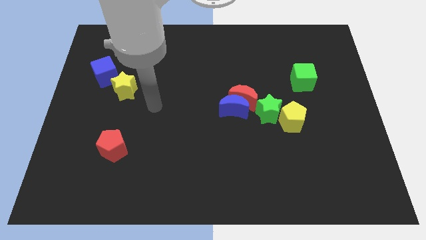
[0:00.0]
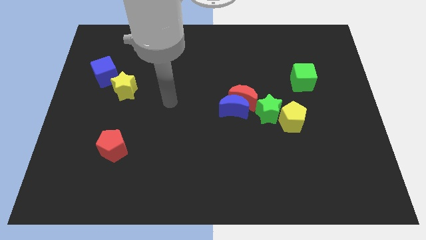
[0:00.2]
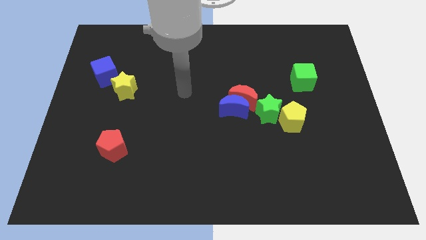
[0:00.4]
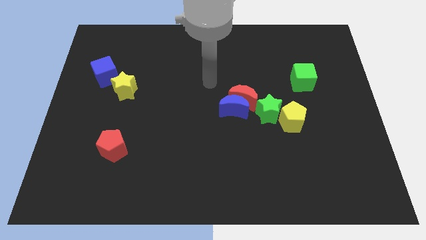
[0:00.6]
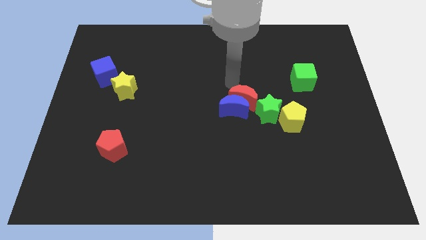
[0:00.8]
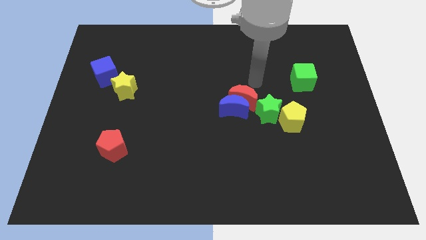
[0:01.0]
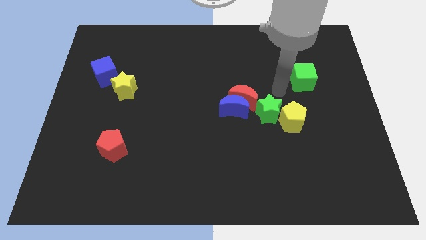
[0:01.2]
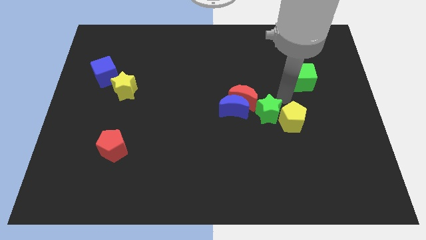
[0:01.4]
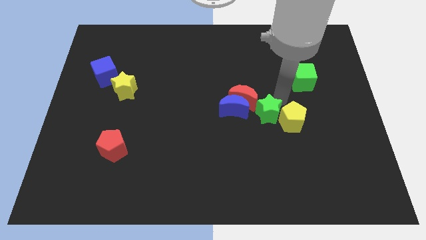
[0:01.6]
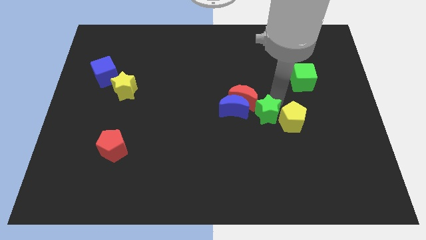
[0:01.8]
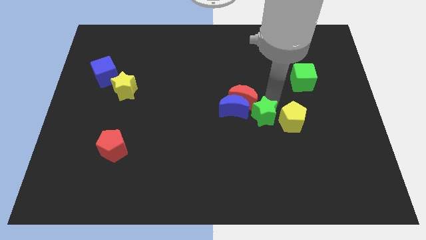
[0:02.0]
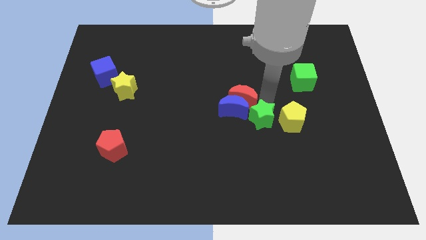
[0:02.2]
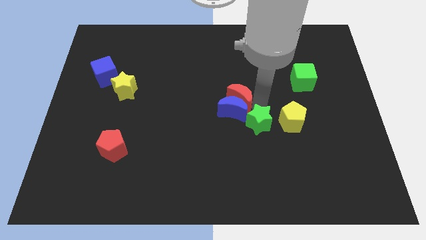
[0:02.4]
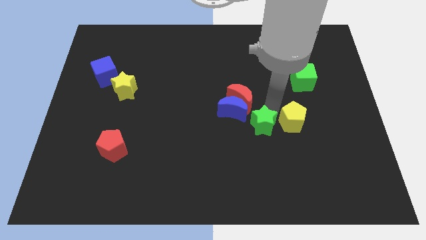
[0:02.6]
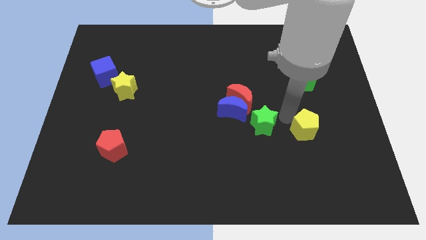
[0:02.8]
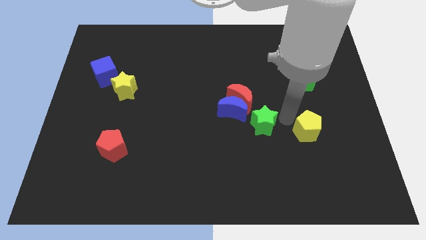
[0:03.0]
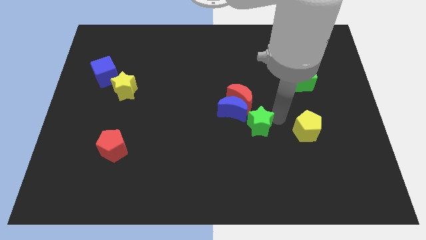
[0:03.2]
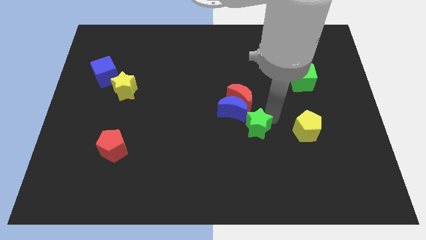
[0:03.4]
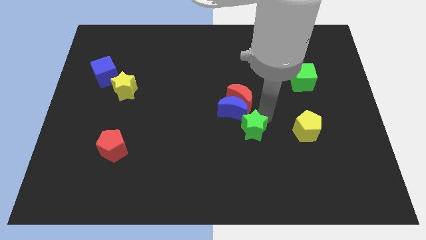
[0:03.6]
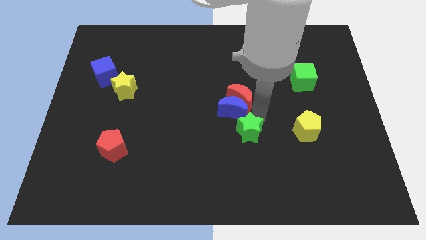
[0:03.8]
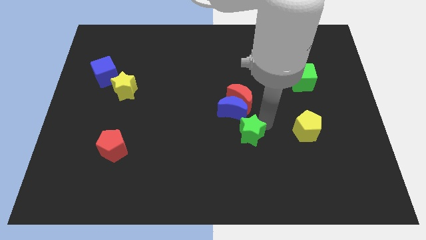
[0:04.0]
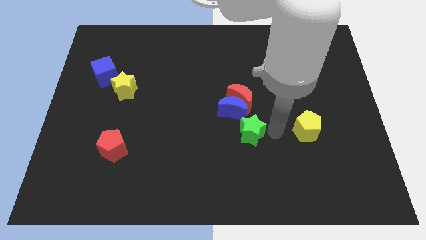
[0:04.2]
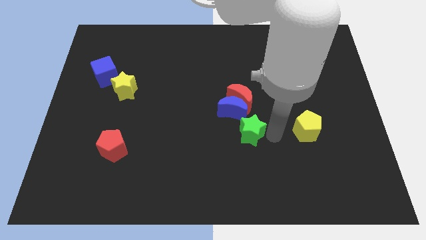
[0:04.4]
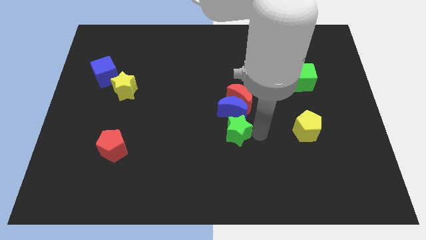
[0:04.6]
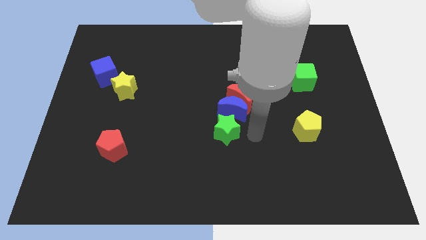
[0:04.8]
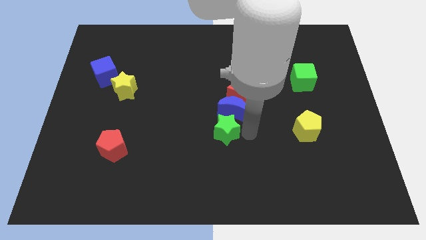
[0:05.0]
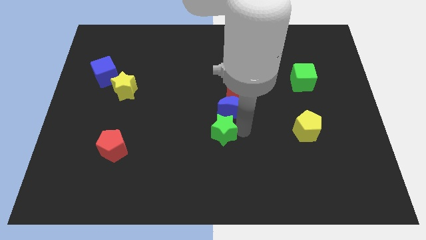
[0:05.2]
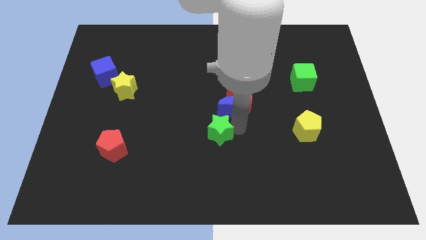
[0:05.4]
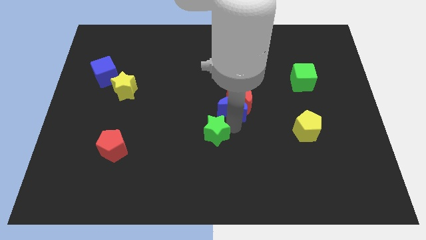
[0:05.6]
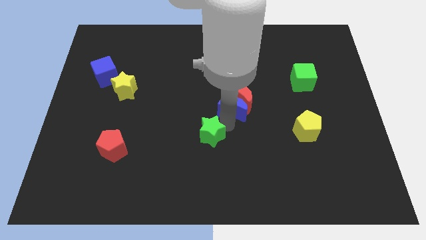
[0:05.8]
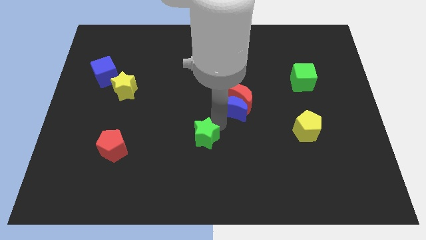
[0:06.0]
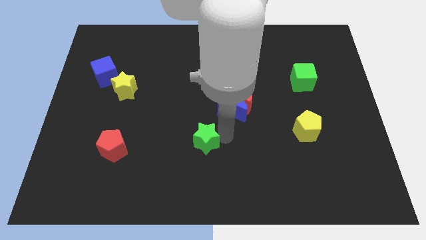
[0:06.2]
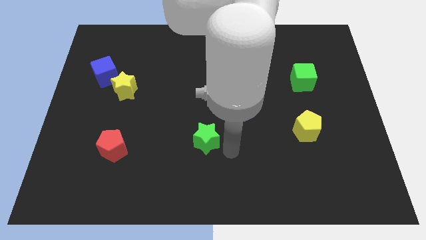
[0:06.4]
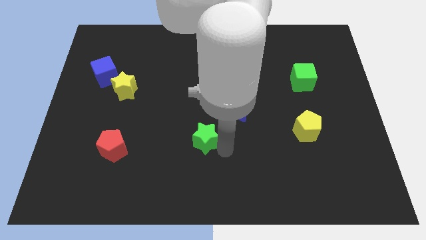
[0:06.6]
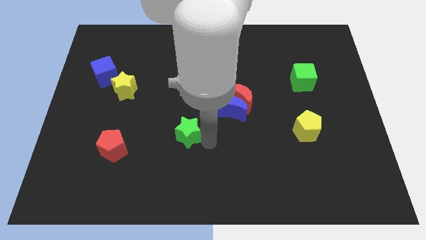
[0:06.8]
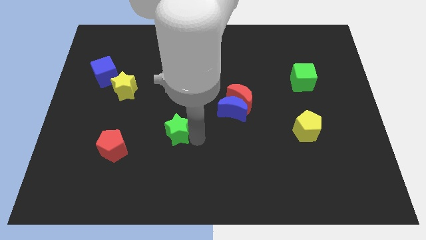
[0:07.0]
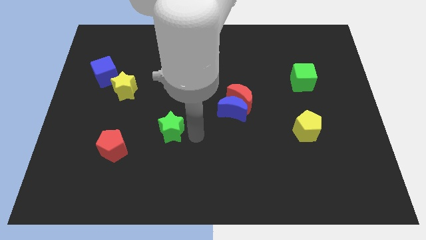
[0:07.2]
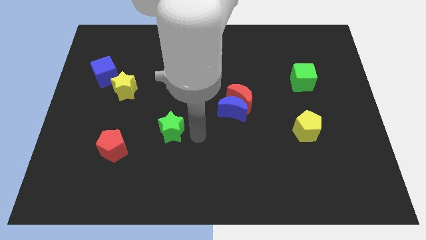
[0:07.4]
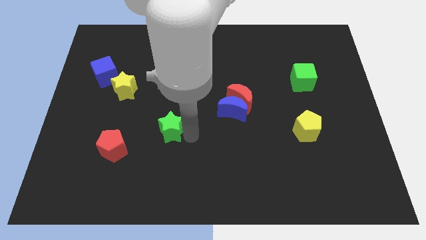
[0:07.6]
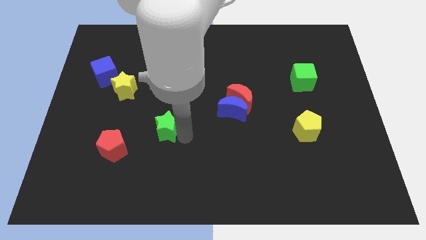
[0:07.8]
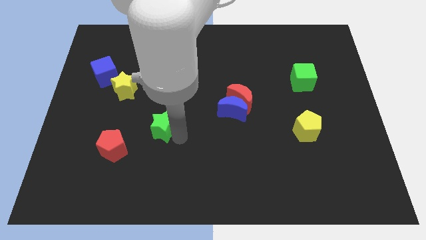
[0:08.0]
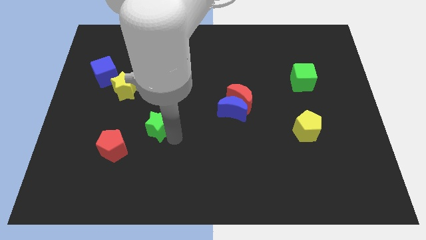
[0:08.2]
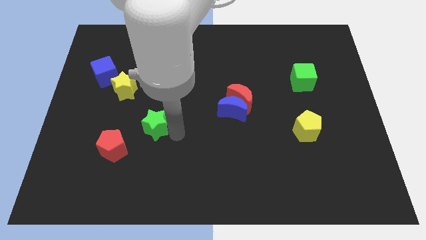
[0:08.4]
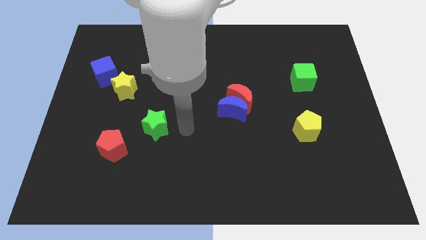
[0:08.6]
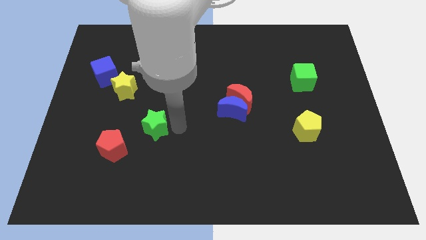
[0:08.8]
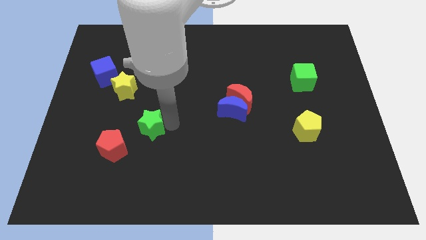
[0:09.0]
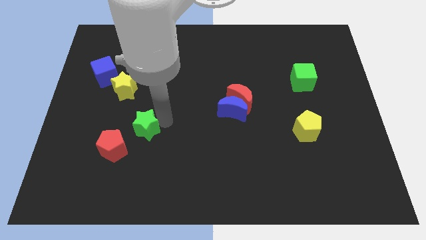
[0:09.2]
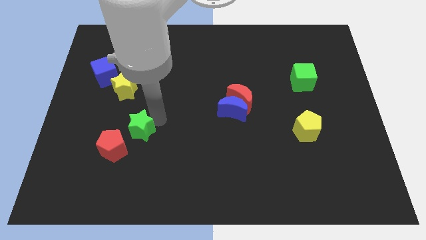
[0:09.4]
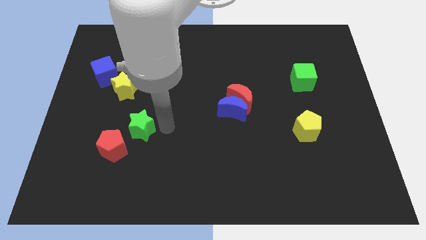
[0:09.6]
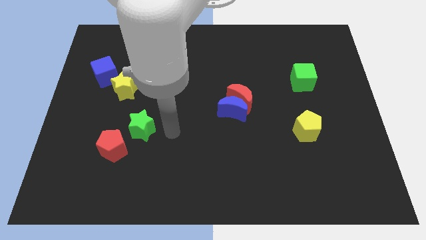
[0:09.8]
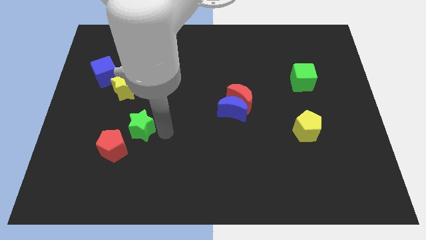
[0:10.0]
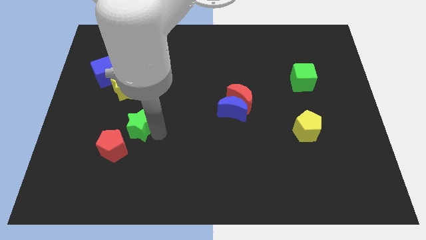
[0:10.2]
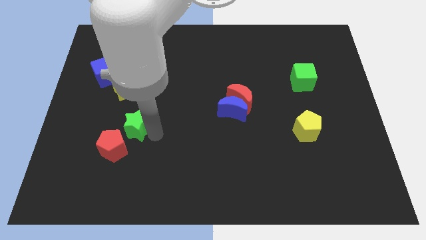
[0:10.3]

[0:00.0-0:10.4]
slide the green star to the bottom of the yellow star
